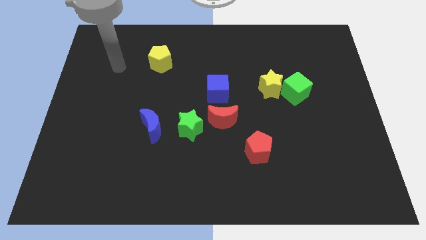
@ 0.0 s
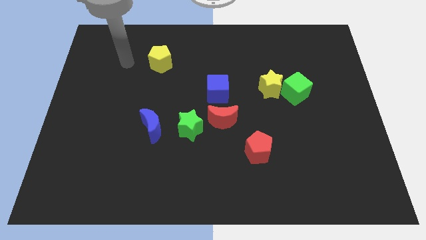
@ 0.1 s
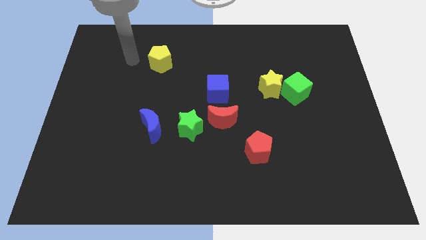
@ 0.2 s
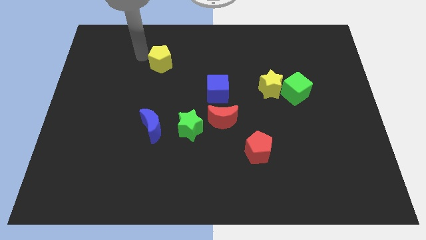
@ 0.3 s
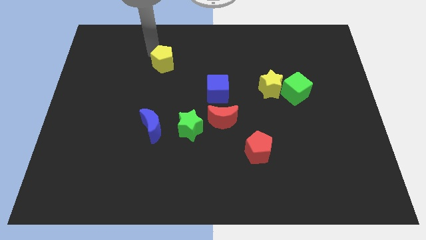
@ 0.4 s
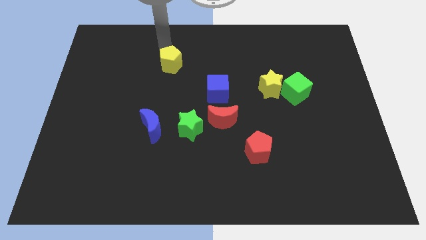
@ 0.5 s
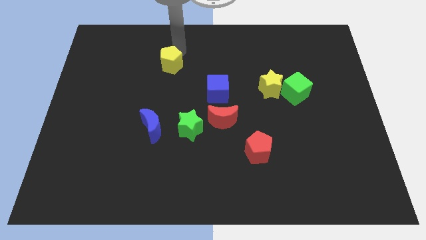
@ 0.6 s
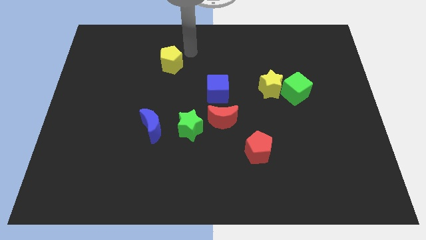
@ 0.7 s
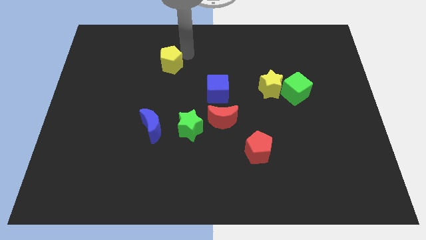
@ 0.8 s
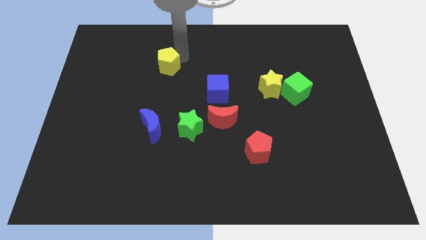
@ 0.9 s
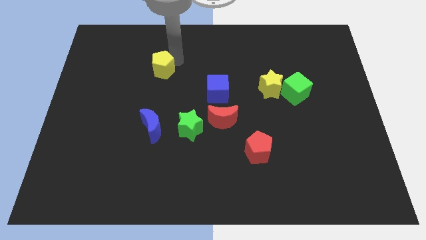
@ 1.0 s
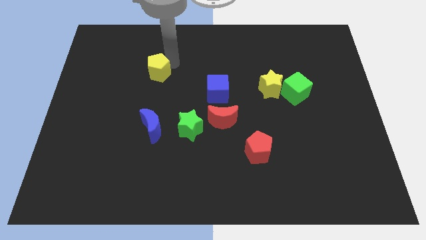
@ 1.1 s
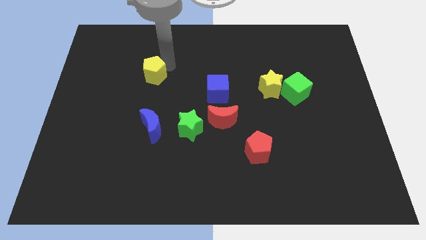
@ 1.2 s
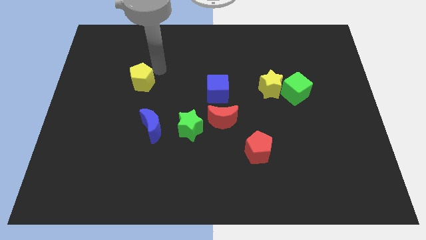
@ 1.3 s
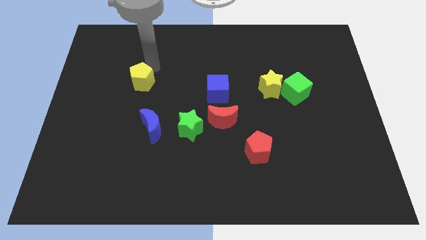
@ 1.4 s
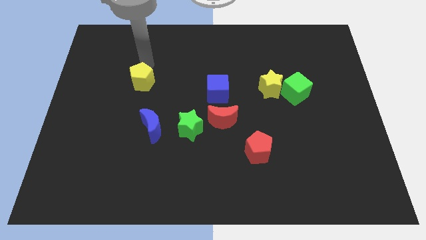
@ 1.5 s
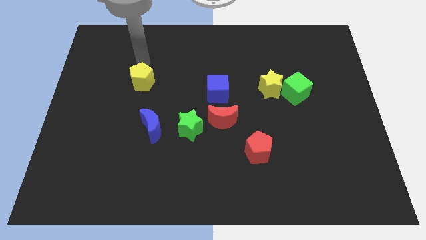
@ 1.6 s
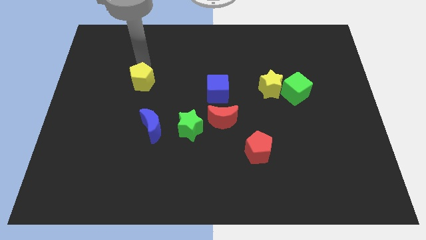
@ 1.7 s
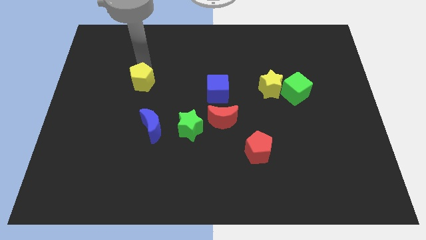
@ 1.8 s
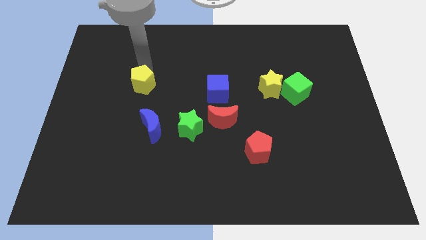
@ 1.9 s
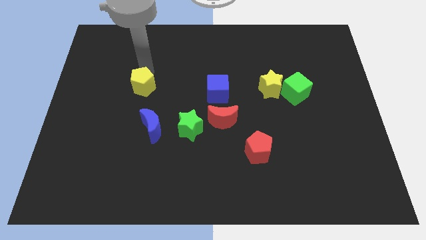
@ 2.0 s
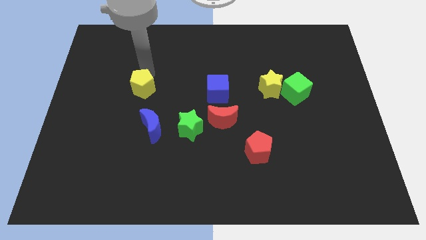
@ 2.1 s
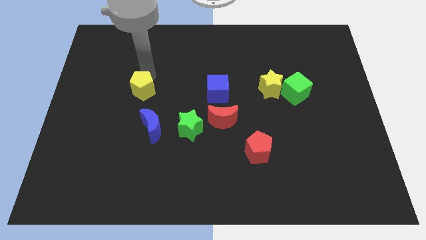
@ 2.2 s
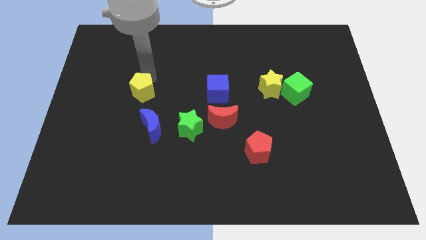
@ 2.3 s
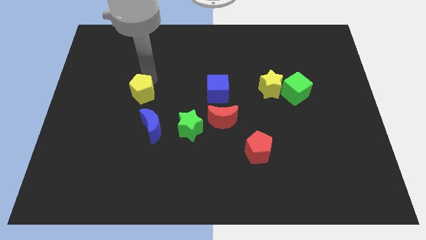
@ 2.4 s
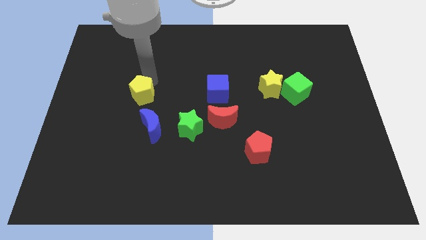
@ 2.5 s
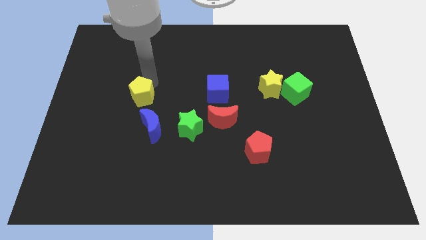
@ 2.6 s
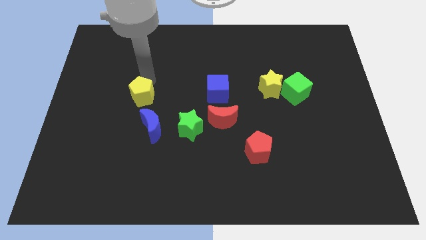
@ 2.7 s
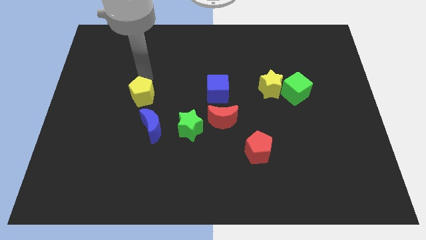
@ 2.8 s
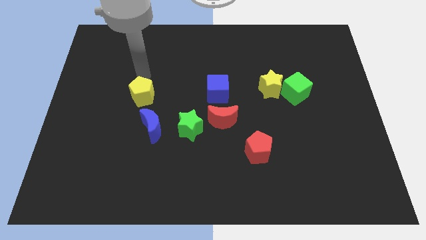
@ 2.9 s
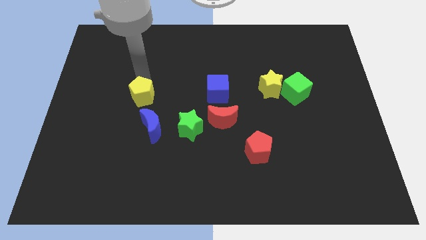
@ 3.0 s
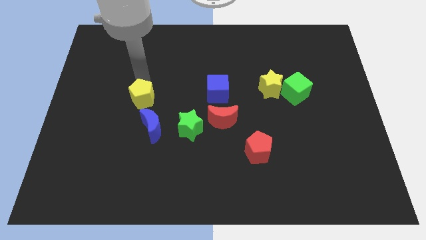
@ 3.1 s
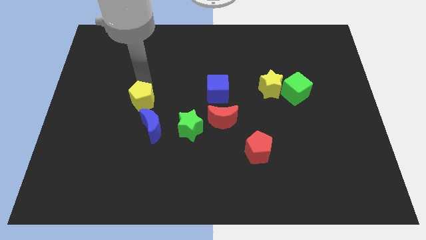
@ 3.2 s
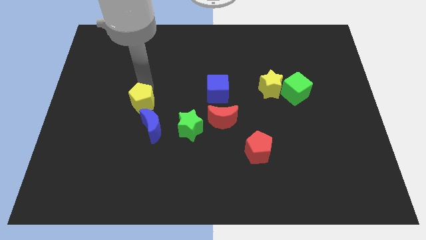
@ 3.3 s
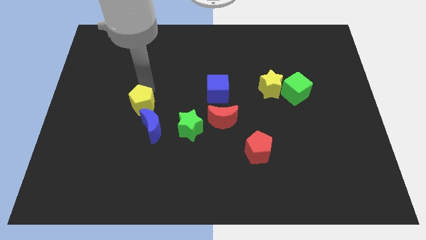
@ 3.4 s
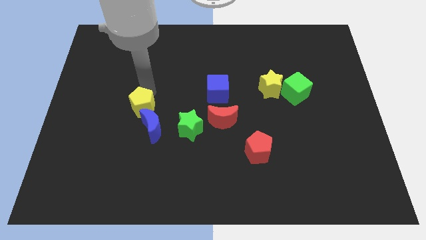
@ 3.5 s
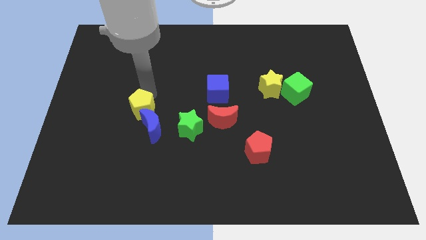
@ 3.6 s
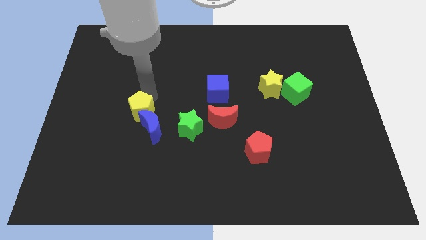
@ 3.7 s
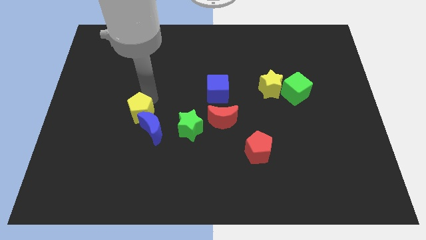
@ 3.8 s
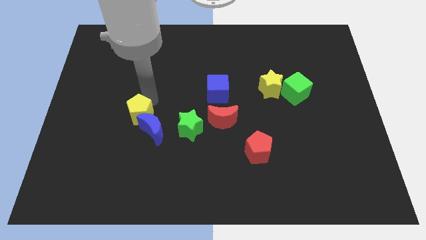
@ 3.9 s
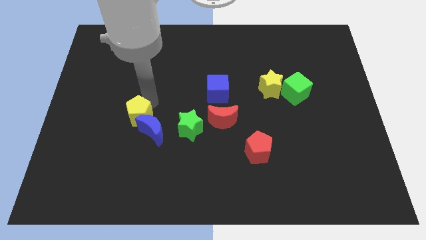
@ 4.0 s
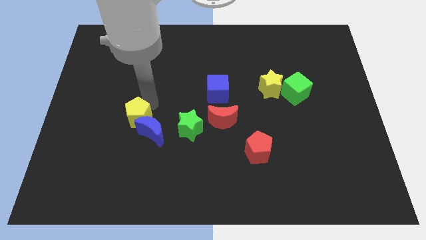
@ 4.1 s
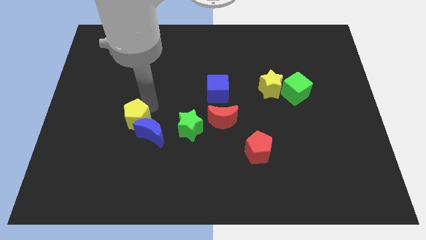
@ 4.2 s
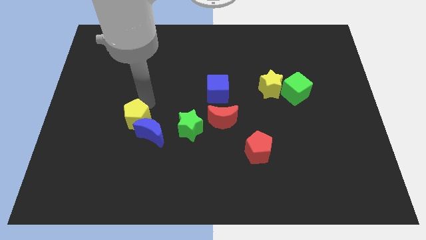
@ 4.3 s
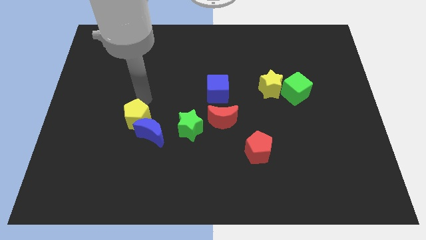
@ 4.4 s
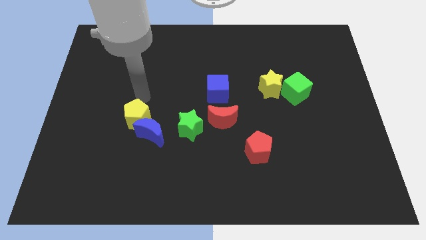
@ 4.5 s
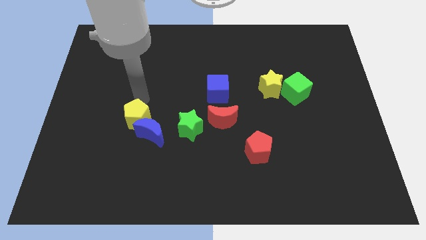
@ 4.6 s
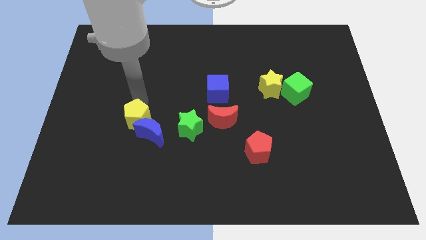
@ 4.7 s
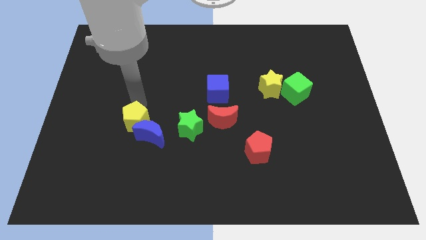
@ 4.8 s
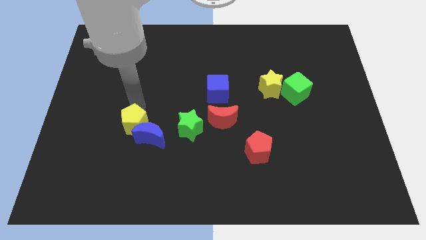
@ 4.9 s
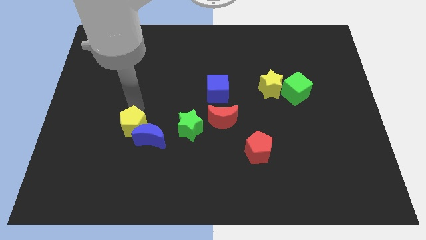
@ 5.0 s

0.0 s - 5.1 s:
push the yellow pentagon down

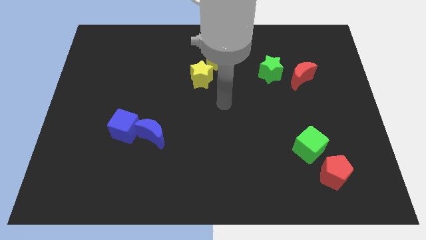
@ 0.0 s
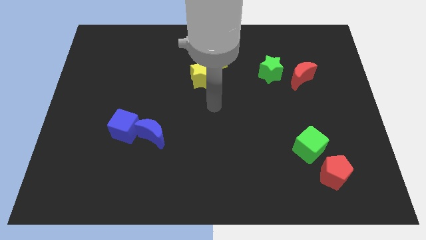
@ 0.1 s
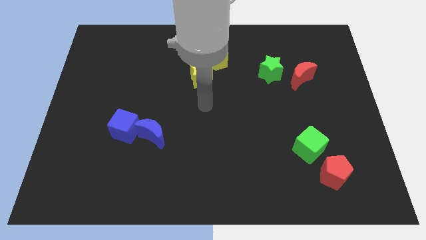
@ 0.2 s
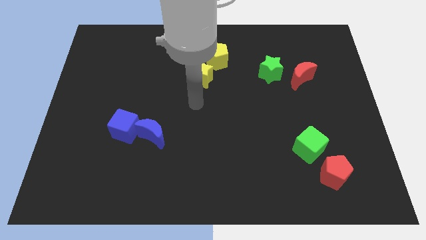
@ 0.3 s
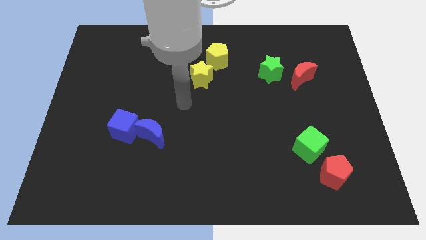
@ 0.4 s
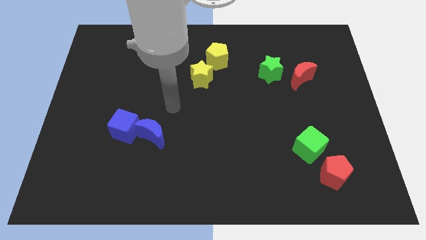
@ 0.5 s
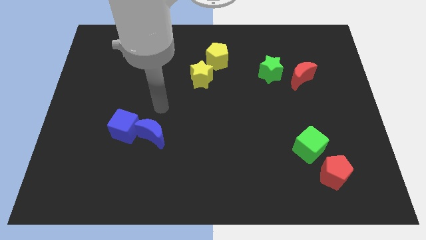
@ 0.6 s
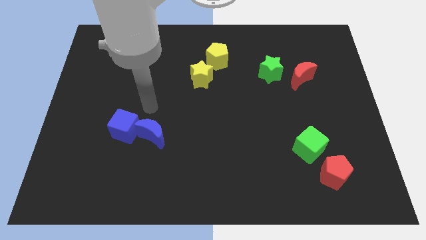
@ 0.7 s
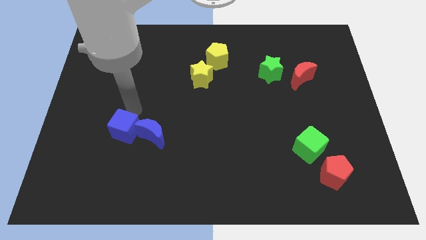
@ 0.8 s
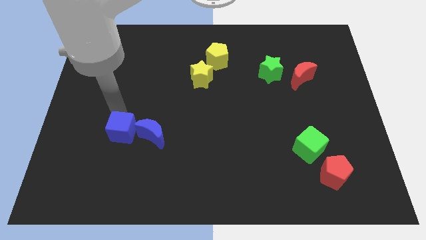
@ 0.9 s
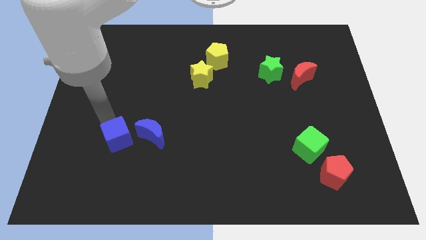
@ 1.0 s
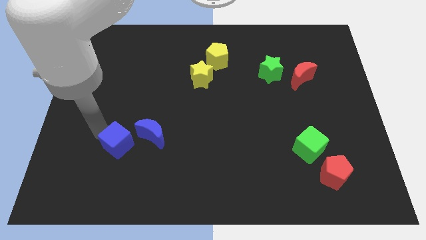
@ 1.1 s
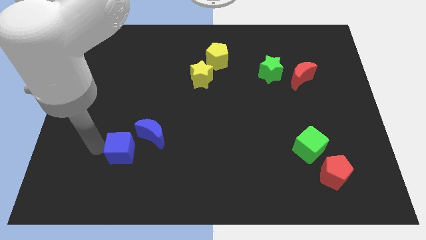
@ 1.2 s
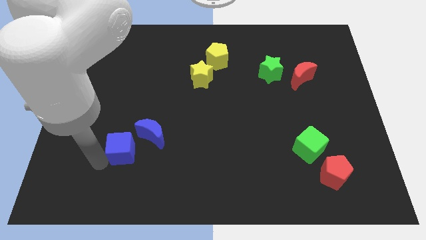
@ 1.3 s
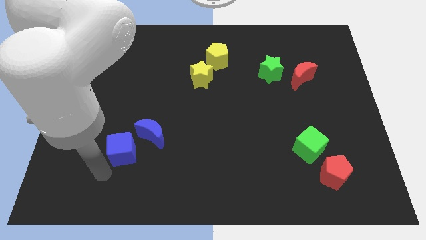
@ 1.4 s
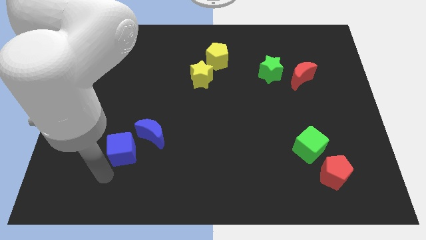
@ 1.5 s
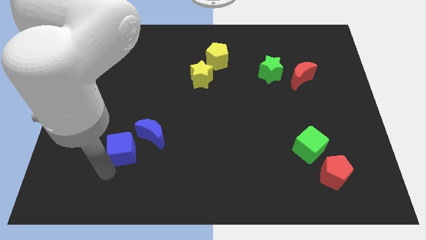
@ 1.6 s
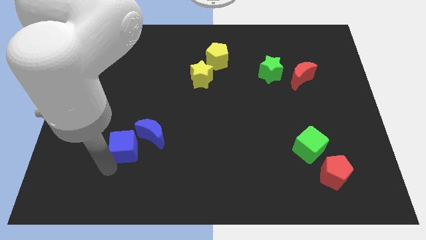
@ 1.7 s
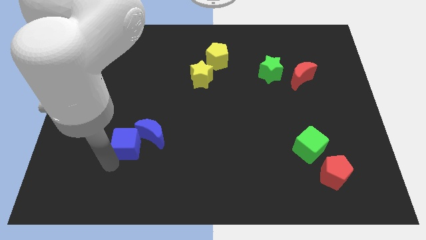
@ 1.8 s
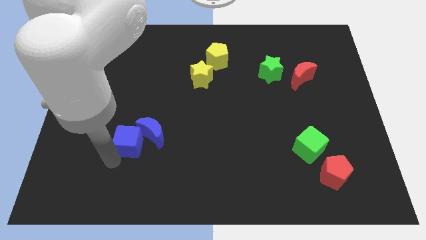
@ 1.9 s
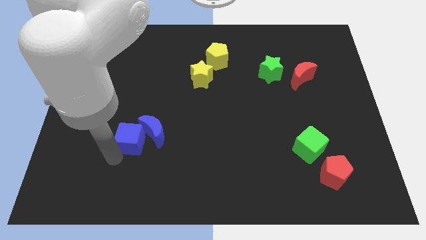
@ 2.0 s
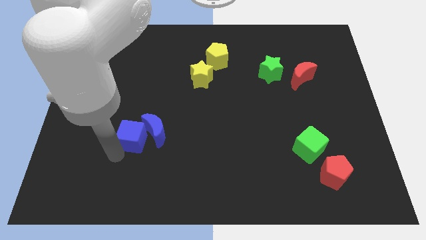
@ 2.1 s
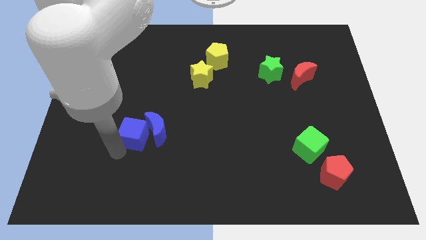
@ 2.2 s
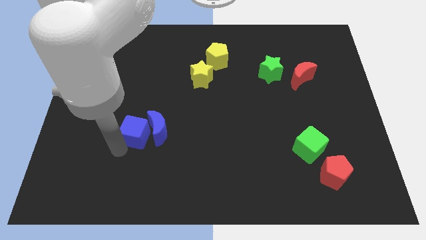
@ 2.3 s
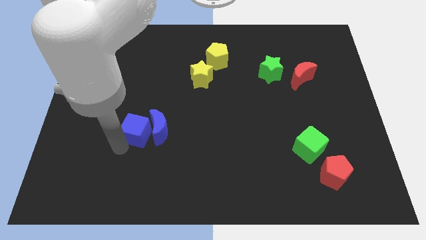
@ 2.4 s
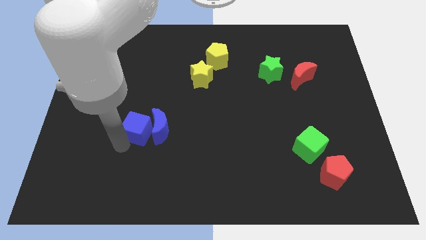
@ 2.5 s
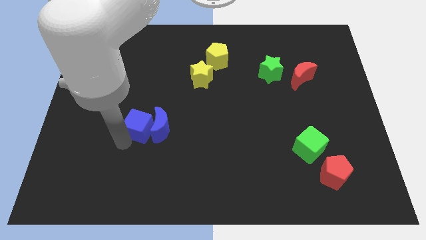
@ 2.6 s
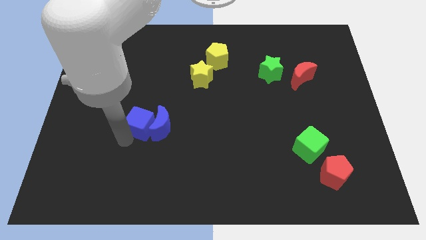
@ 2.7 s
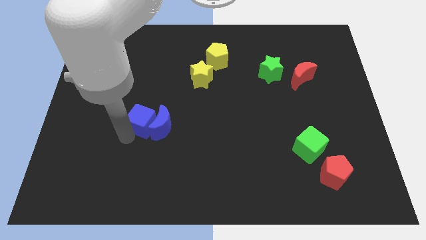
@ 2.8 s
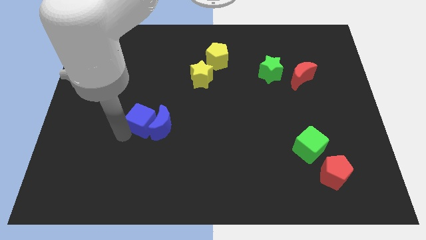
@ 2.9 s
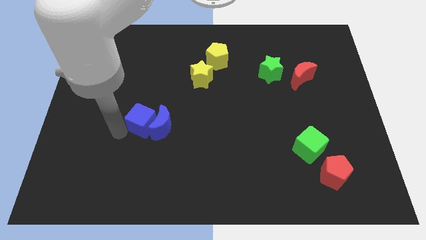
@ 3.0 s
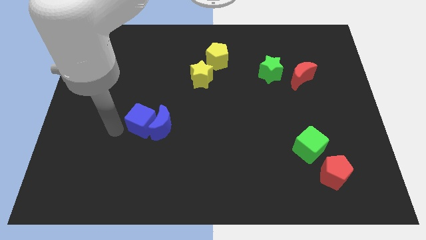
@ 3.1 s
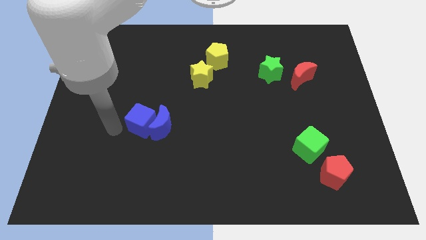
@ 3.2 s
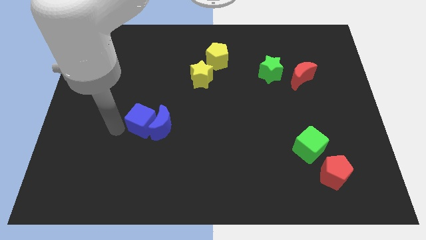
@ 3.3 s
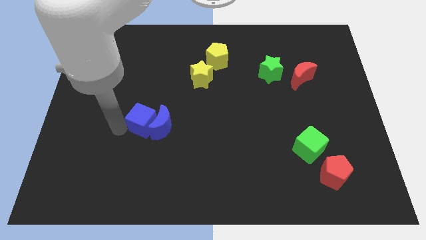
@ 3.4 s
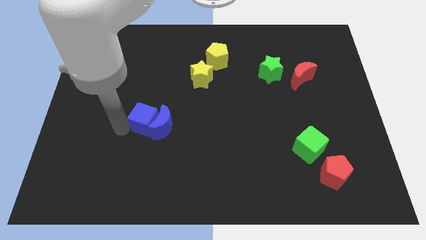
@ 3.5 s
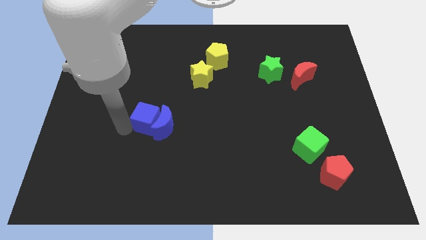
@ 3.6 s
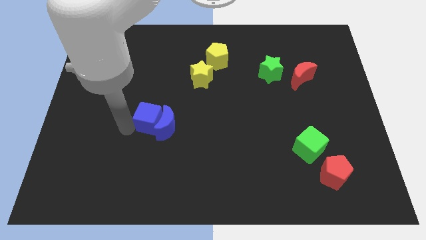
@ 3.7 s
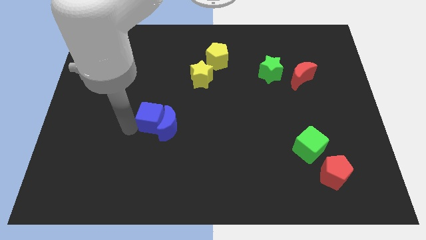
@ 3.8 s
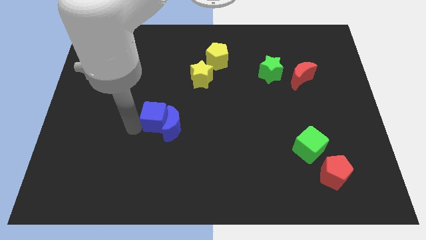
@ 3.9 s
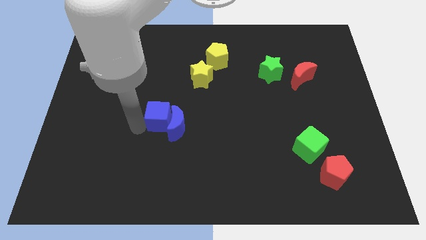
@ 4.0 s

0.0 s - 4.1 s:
slightly move the blue cube to the right
